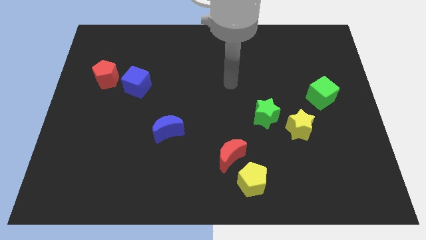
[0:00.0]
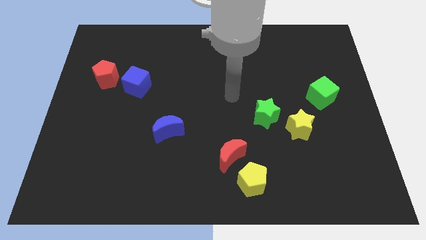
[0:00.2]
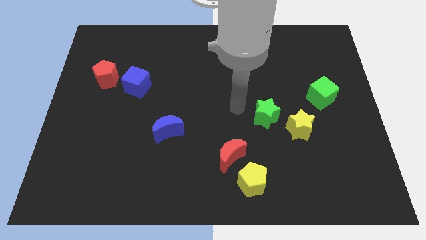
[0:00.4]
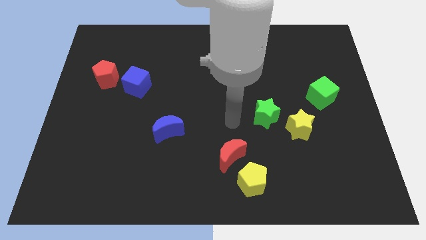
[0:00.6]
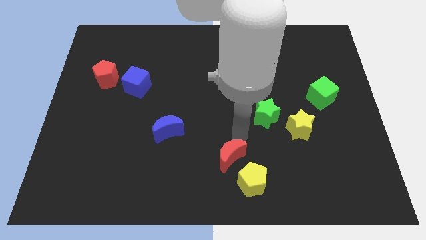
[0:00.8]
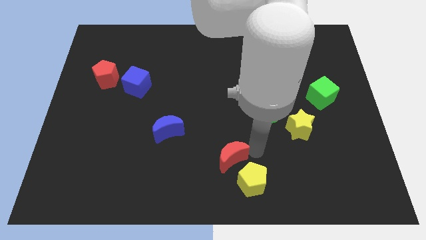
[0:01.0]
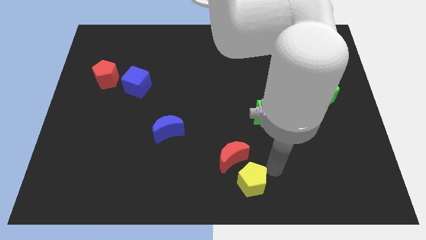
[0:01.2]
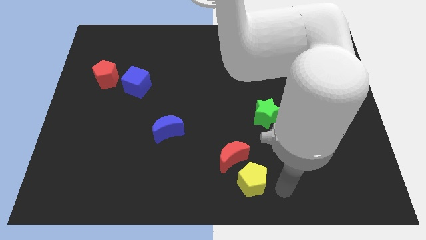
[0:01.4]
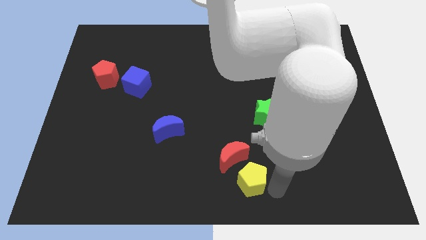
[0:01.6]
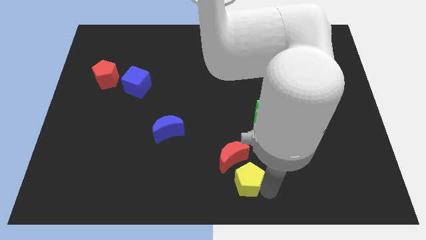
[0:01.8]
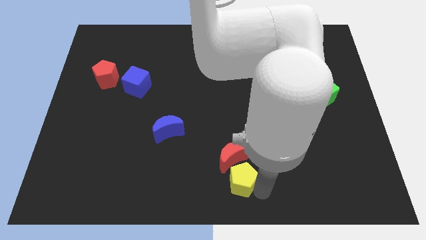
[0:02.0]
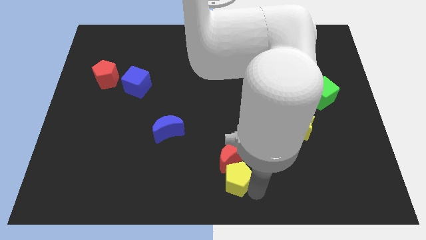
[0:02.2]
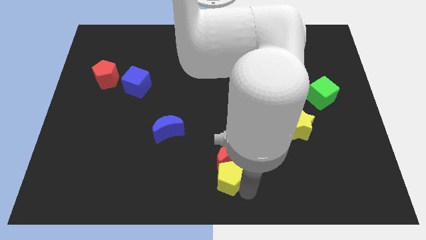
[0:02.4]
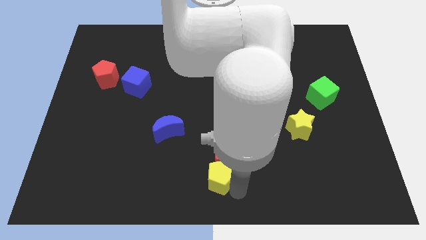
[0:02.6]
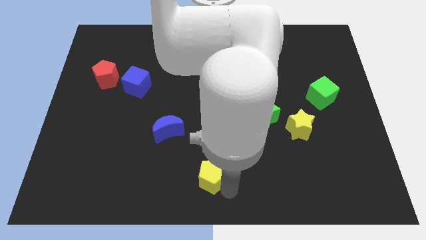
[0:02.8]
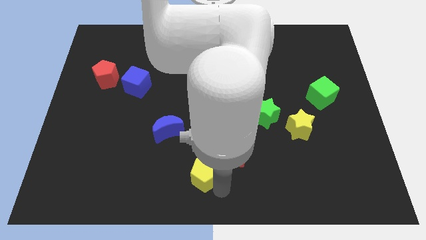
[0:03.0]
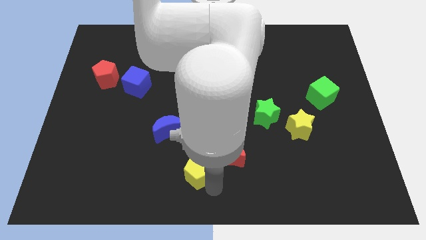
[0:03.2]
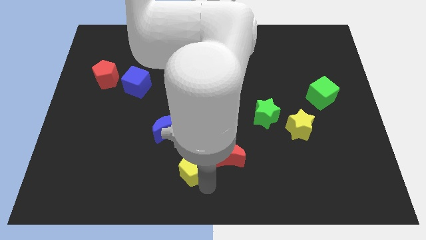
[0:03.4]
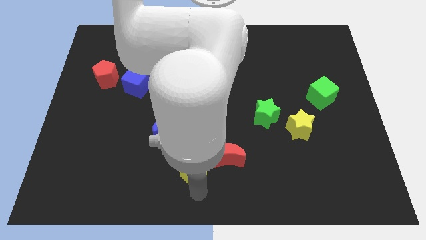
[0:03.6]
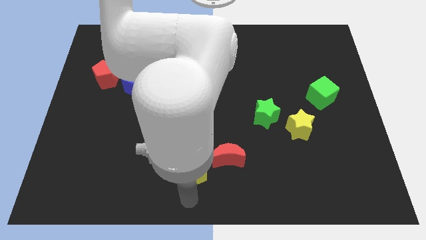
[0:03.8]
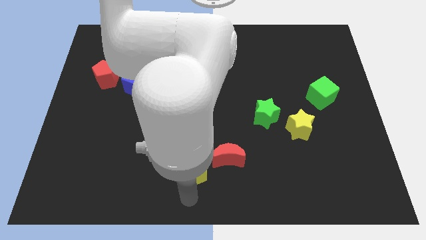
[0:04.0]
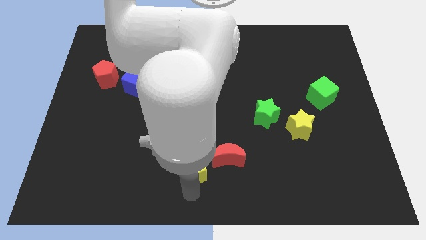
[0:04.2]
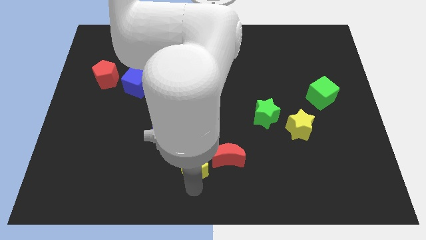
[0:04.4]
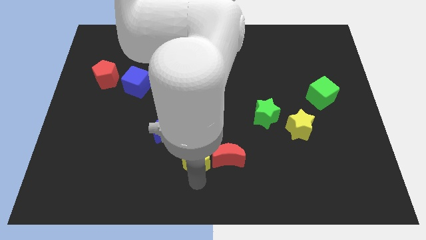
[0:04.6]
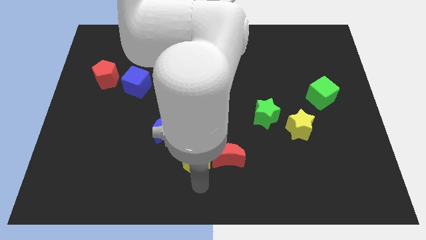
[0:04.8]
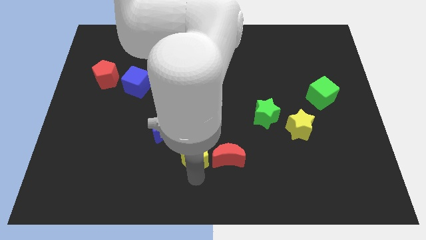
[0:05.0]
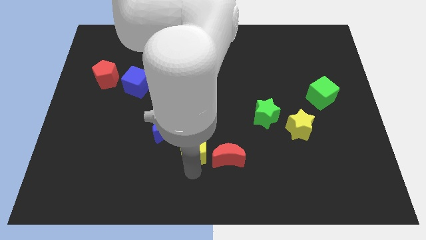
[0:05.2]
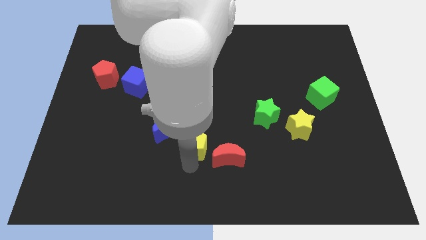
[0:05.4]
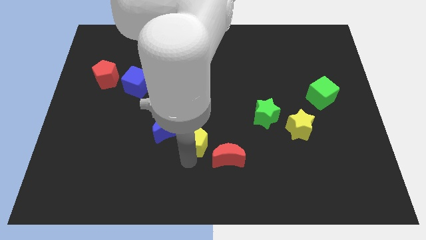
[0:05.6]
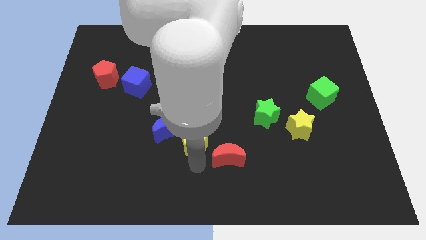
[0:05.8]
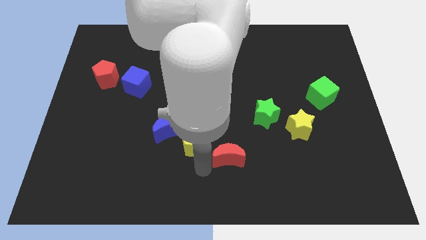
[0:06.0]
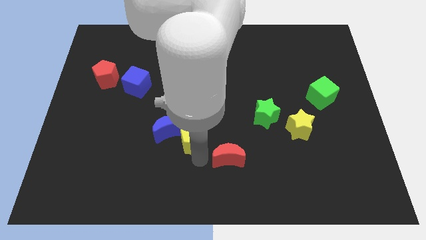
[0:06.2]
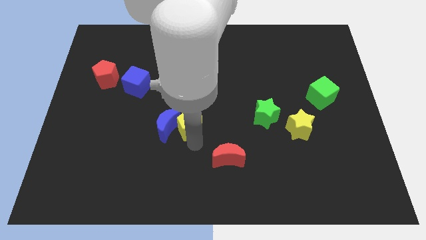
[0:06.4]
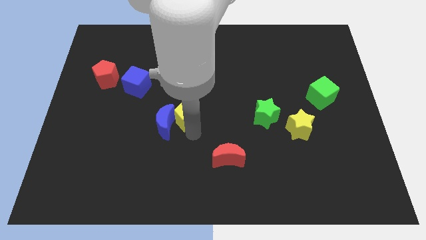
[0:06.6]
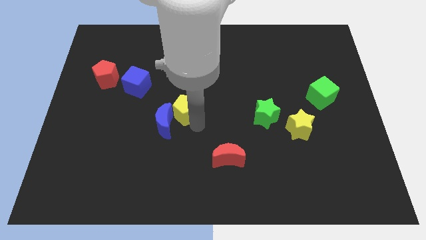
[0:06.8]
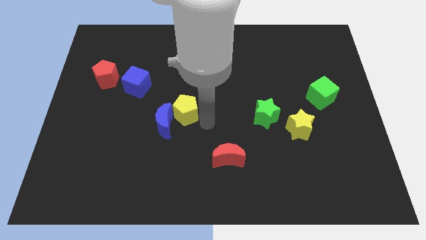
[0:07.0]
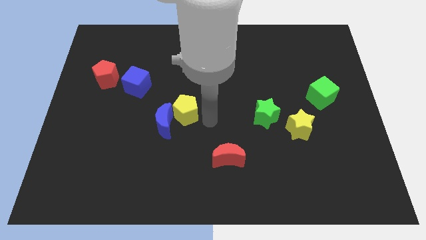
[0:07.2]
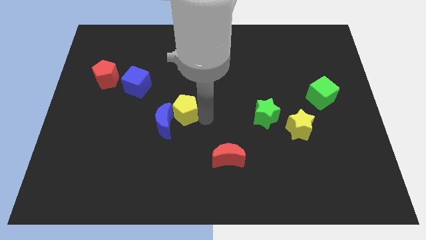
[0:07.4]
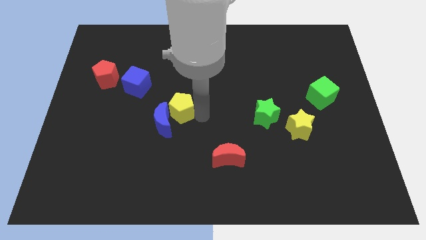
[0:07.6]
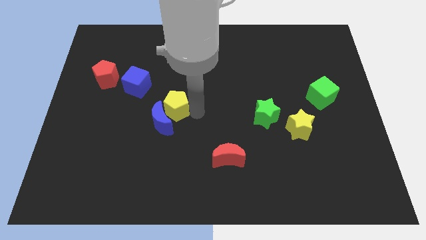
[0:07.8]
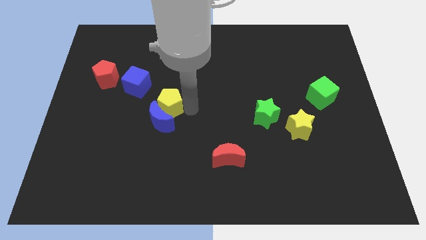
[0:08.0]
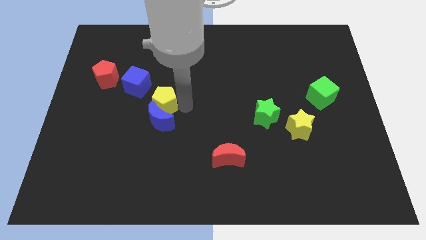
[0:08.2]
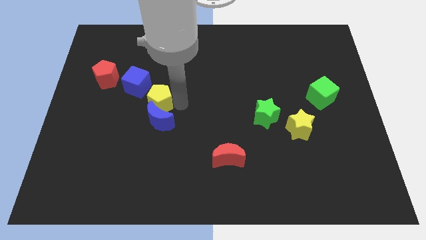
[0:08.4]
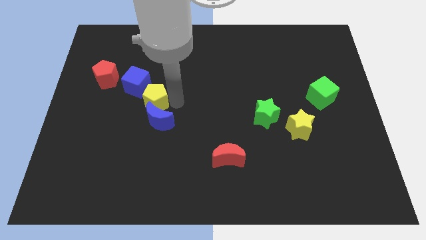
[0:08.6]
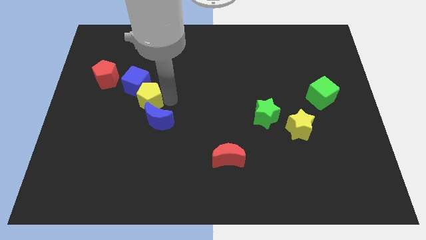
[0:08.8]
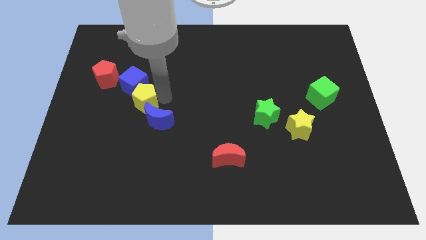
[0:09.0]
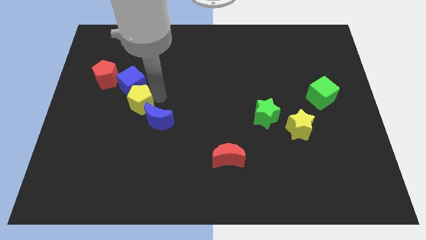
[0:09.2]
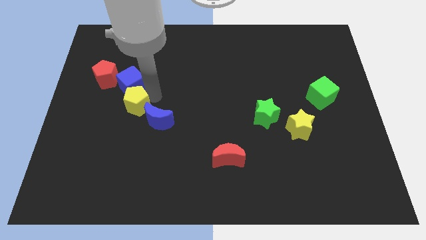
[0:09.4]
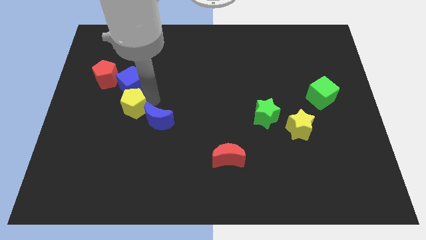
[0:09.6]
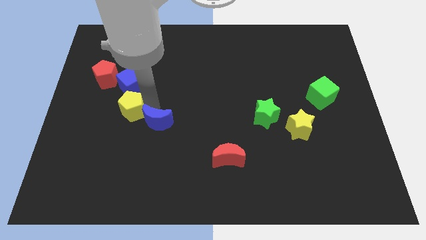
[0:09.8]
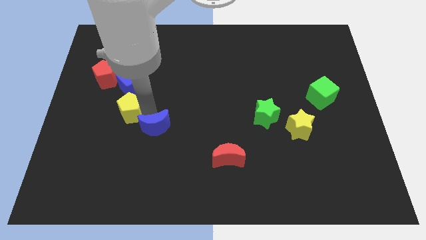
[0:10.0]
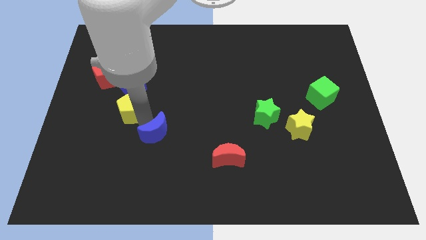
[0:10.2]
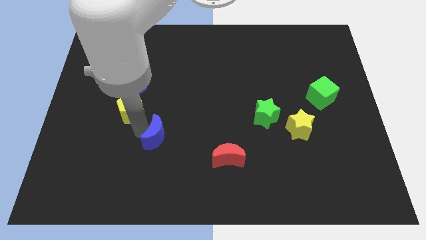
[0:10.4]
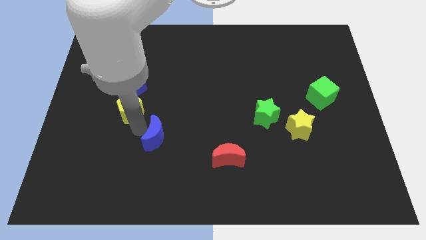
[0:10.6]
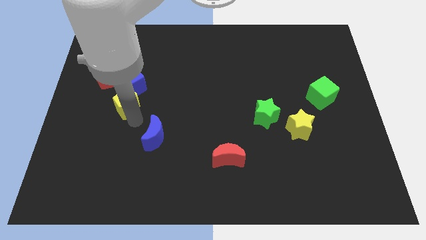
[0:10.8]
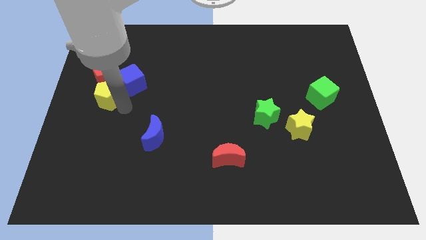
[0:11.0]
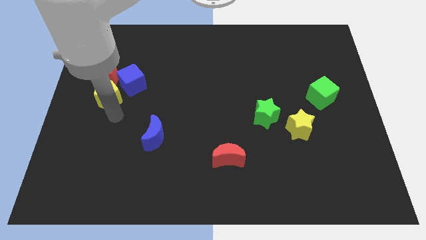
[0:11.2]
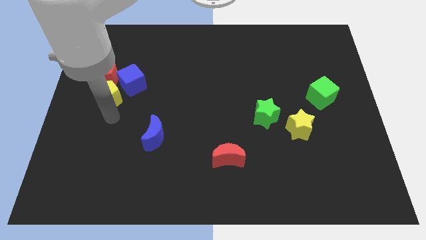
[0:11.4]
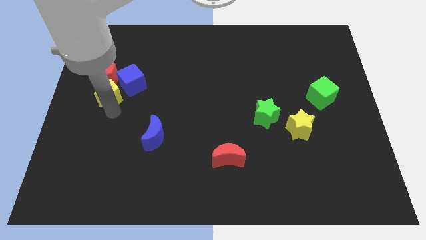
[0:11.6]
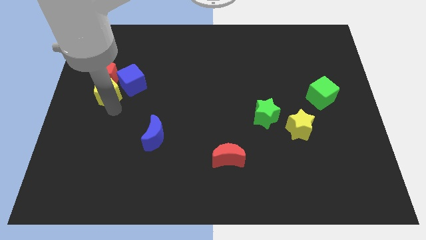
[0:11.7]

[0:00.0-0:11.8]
put the yellow pentagon close to the red pentagon
